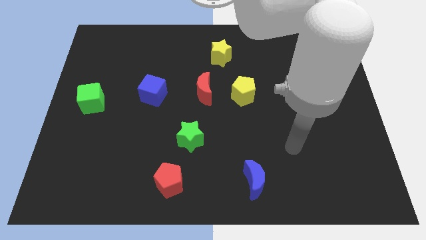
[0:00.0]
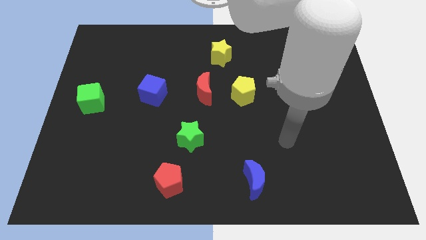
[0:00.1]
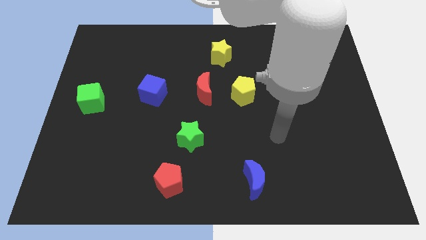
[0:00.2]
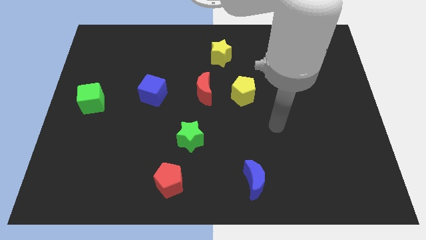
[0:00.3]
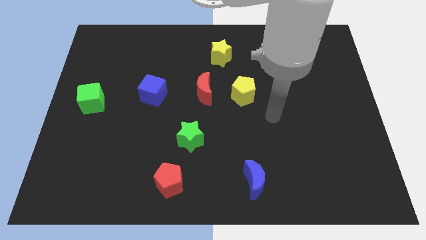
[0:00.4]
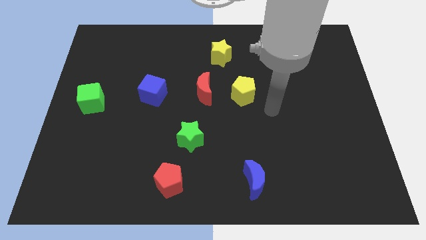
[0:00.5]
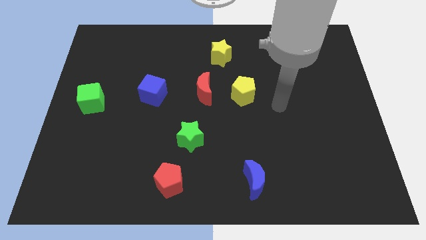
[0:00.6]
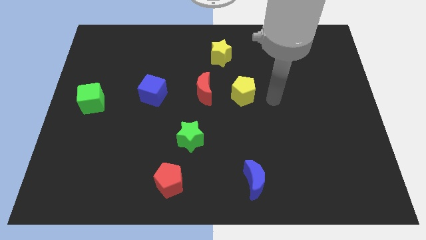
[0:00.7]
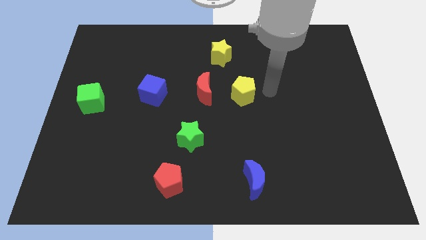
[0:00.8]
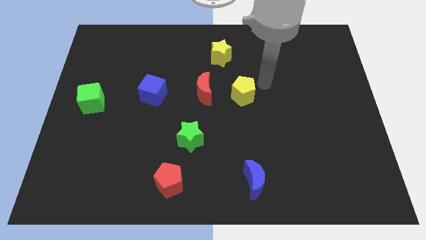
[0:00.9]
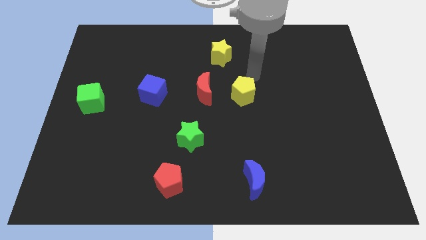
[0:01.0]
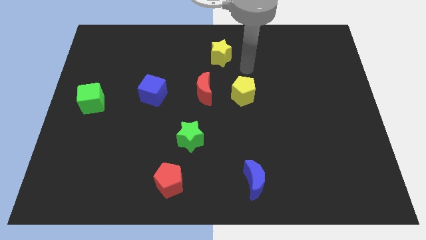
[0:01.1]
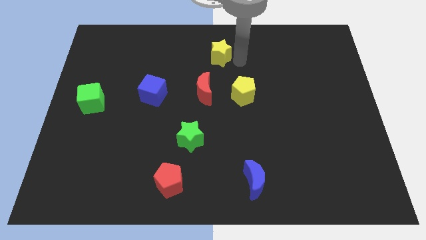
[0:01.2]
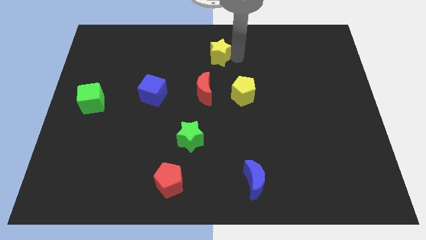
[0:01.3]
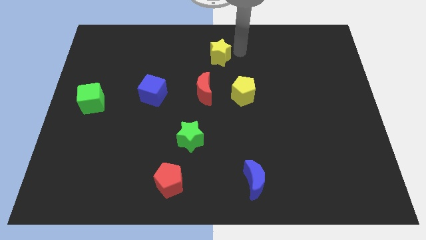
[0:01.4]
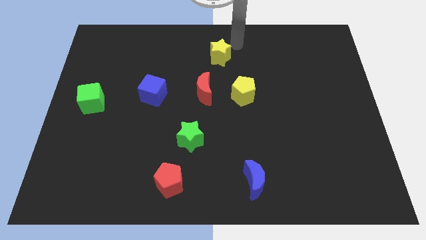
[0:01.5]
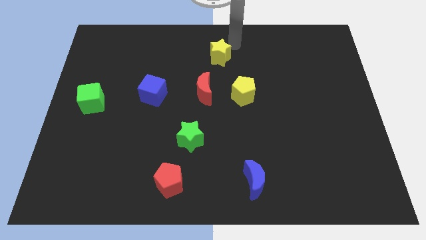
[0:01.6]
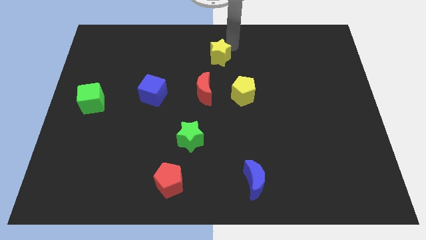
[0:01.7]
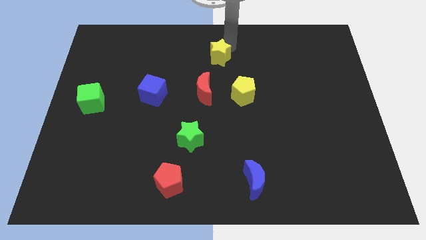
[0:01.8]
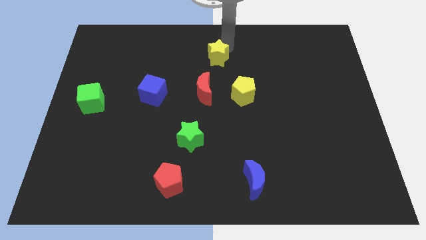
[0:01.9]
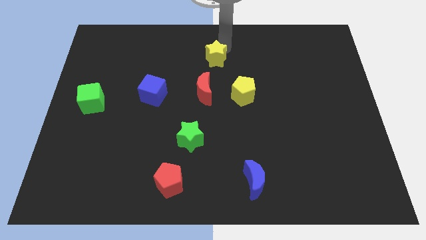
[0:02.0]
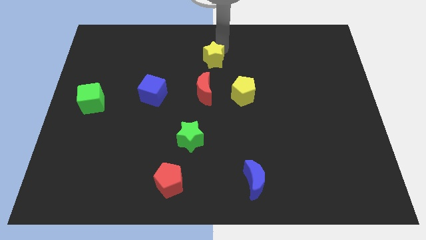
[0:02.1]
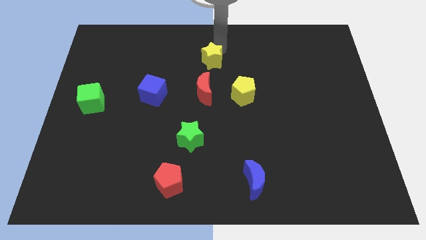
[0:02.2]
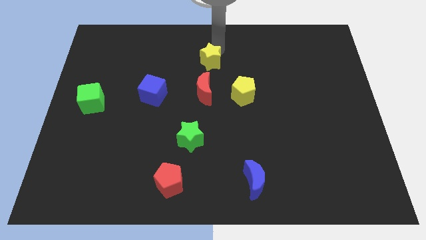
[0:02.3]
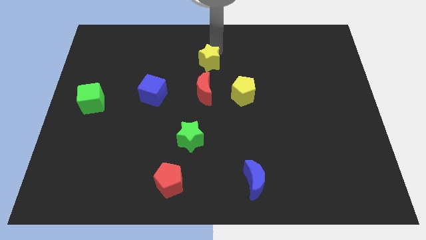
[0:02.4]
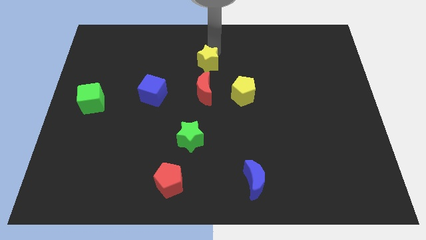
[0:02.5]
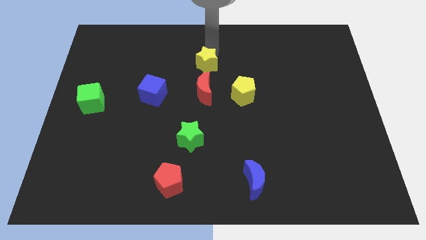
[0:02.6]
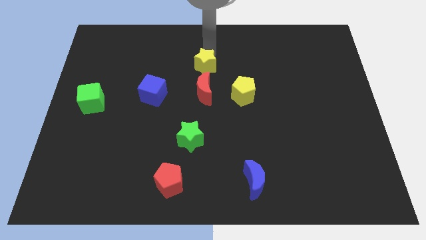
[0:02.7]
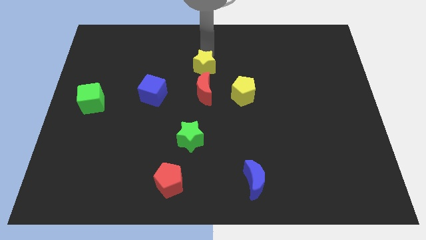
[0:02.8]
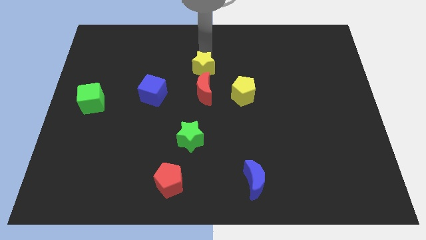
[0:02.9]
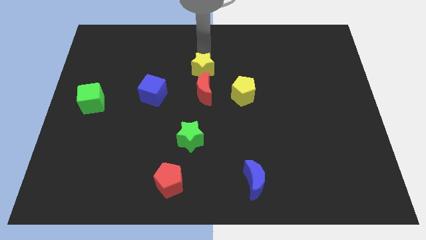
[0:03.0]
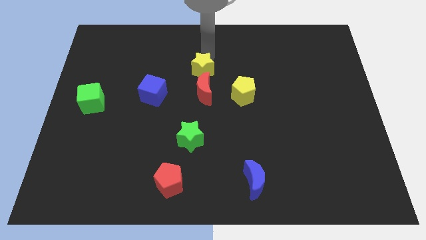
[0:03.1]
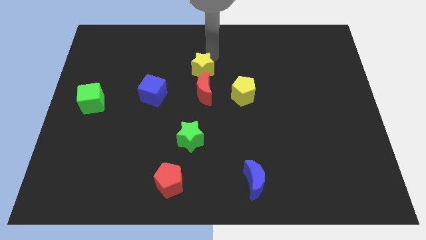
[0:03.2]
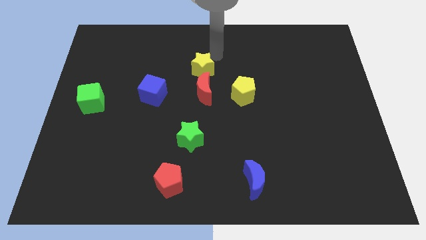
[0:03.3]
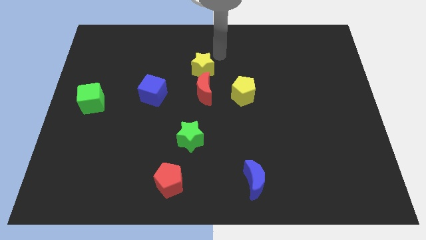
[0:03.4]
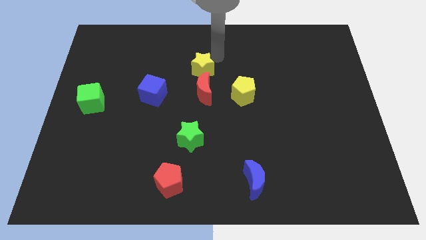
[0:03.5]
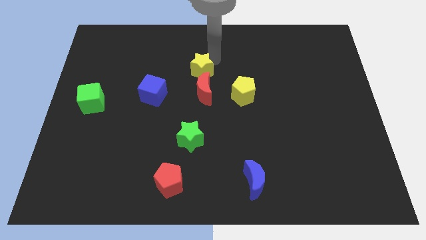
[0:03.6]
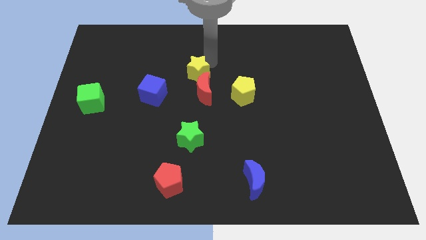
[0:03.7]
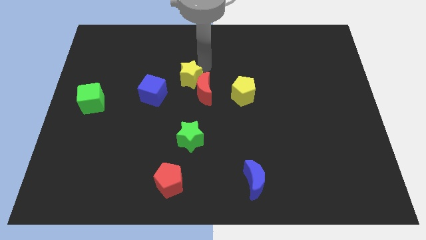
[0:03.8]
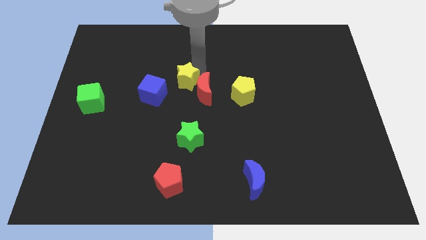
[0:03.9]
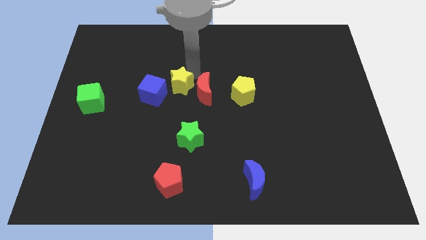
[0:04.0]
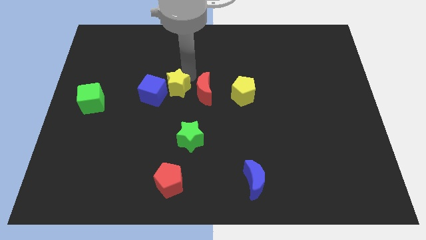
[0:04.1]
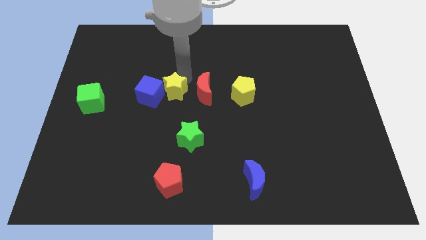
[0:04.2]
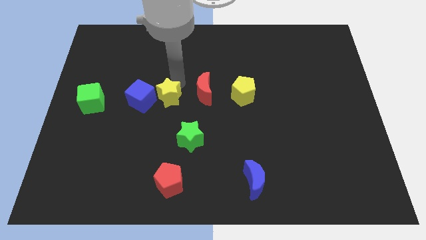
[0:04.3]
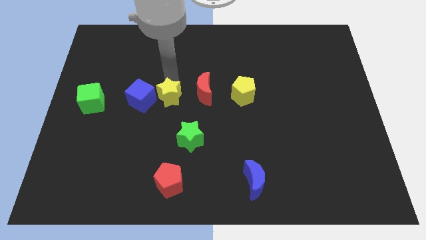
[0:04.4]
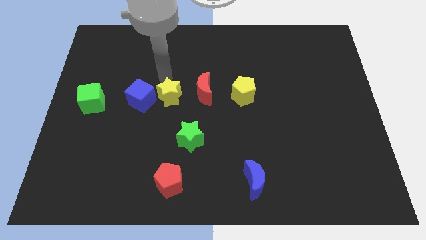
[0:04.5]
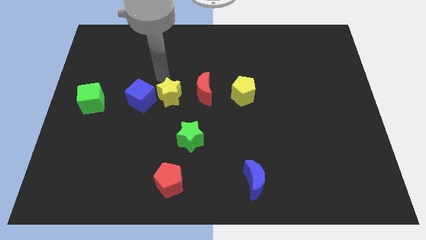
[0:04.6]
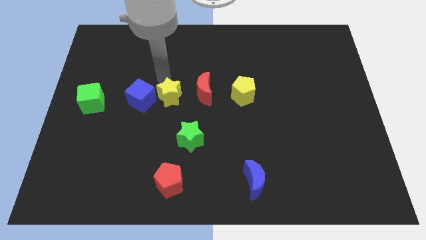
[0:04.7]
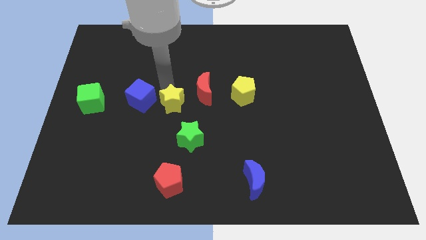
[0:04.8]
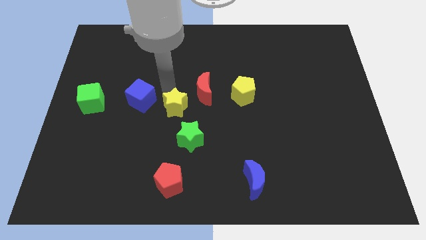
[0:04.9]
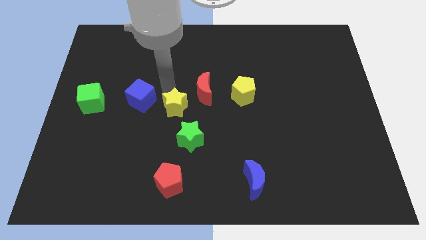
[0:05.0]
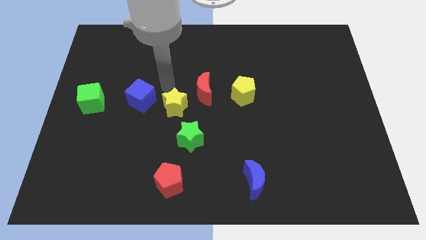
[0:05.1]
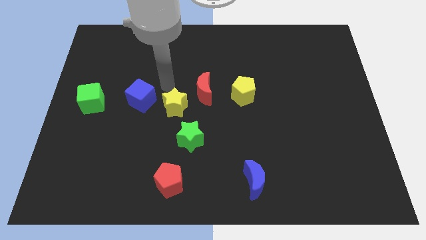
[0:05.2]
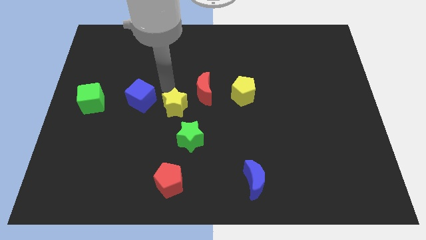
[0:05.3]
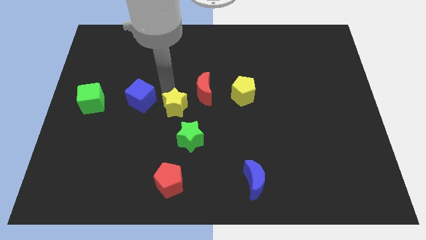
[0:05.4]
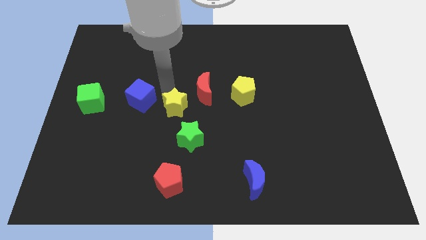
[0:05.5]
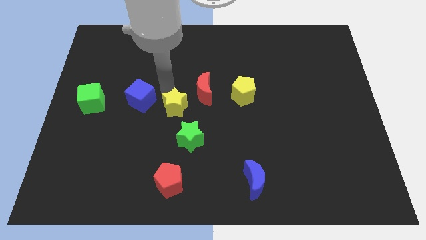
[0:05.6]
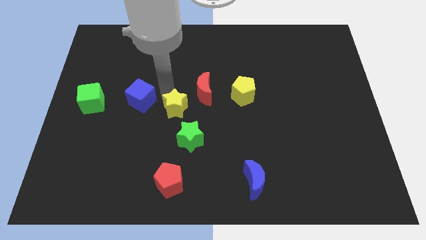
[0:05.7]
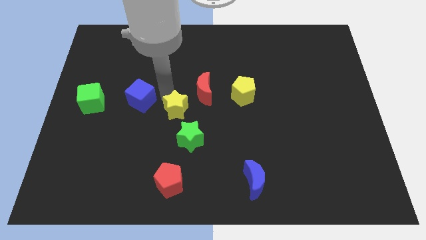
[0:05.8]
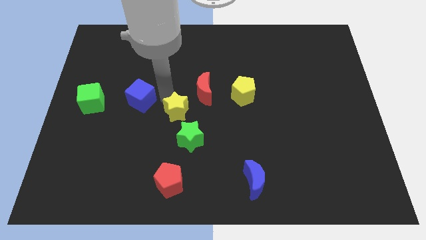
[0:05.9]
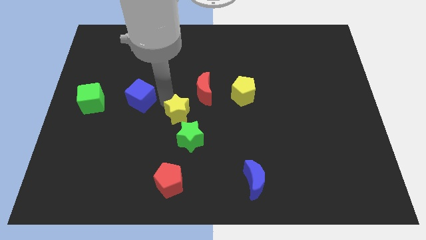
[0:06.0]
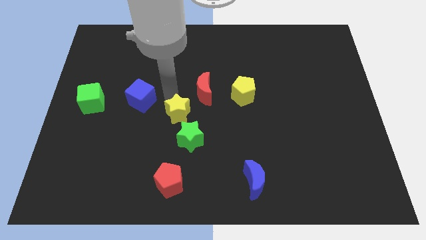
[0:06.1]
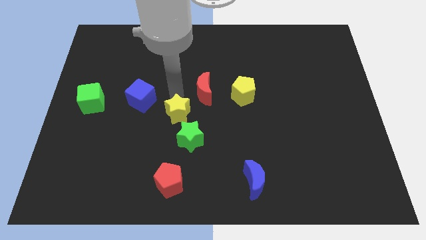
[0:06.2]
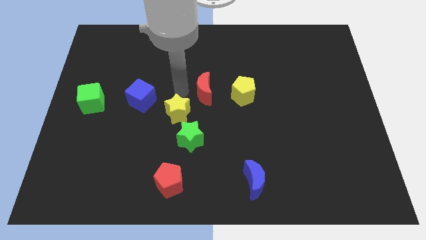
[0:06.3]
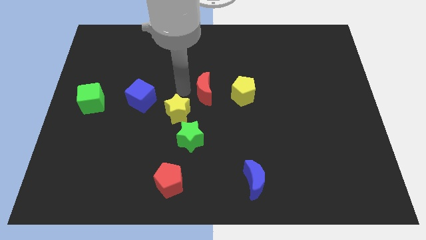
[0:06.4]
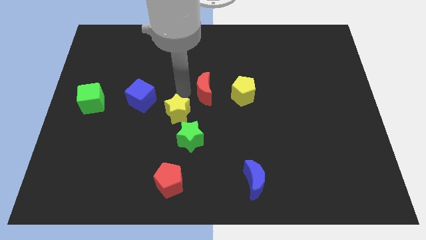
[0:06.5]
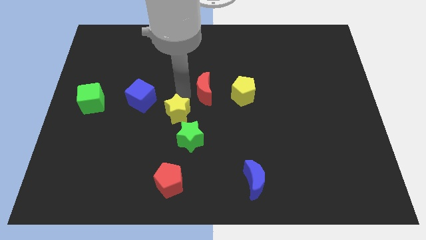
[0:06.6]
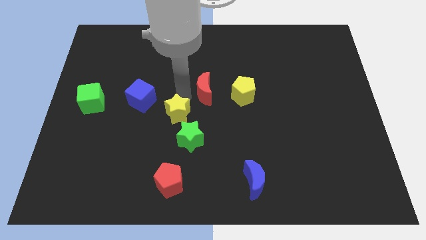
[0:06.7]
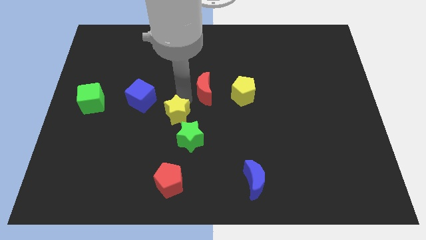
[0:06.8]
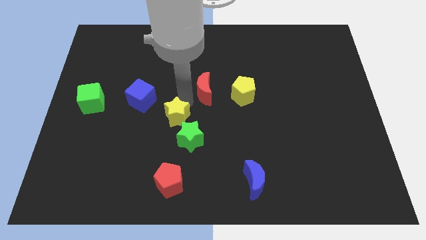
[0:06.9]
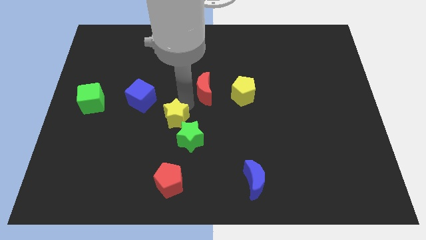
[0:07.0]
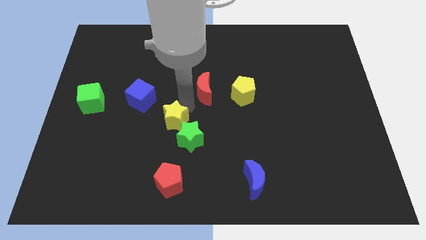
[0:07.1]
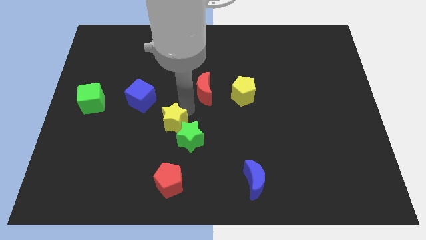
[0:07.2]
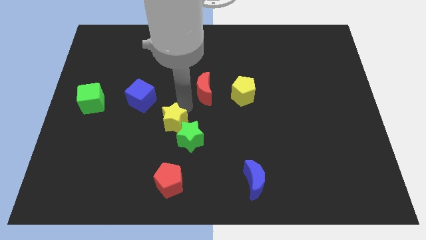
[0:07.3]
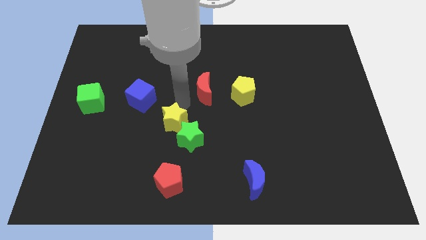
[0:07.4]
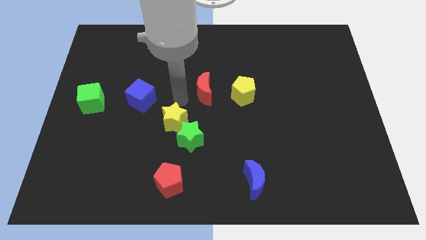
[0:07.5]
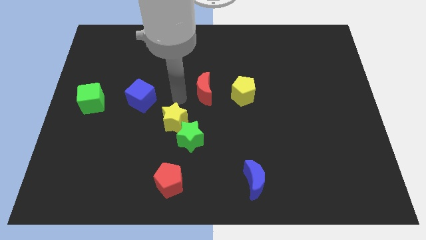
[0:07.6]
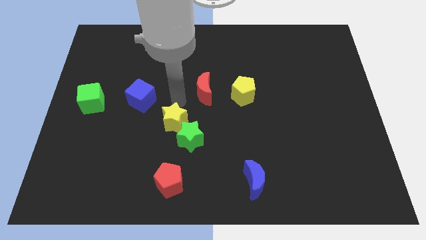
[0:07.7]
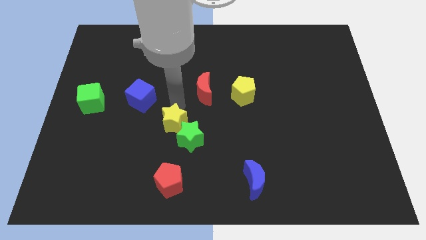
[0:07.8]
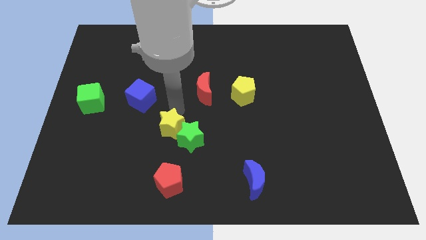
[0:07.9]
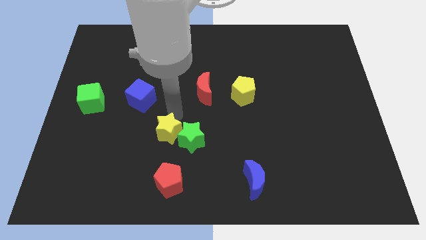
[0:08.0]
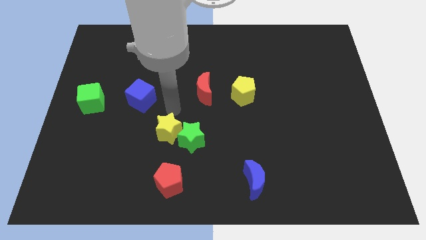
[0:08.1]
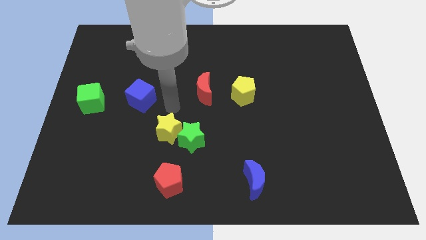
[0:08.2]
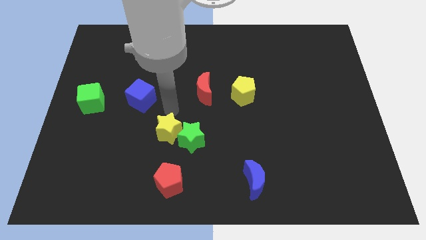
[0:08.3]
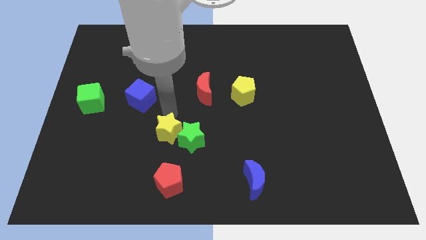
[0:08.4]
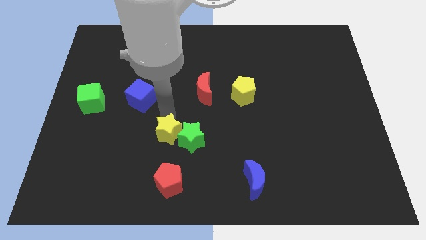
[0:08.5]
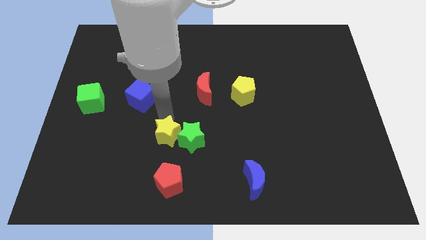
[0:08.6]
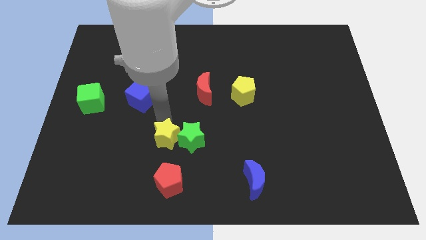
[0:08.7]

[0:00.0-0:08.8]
put the yellow star to the bottom left side of the green star
